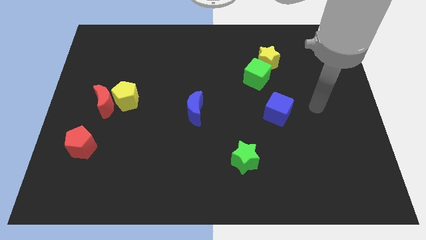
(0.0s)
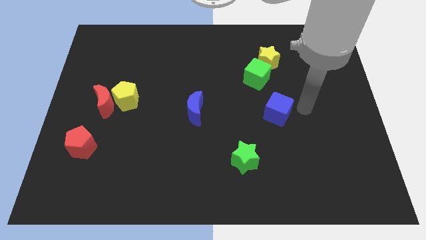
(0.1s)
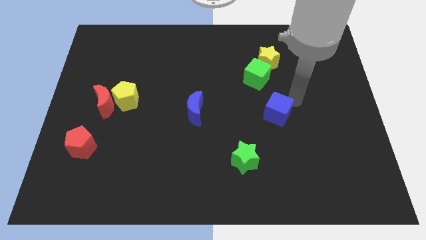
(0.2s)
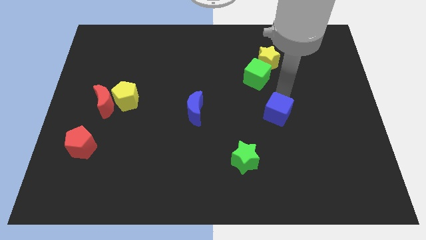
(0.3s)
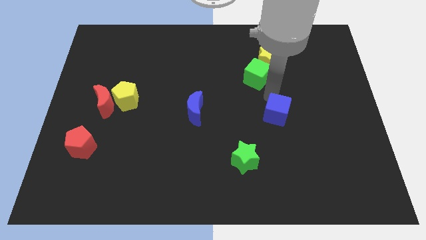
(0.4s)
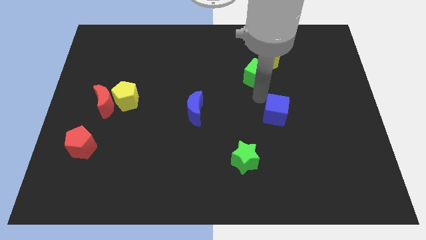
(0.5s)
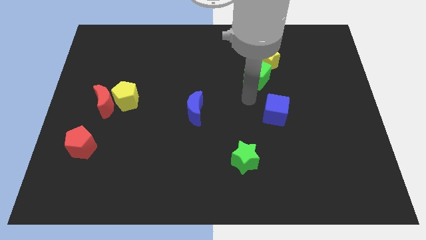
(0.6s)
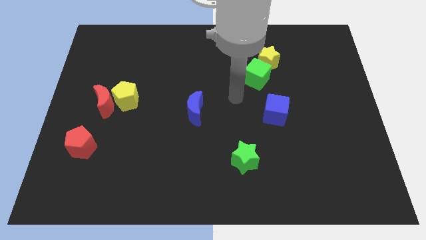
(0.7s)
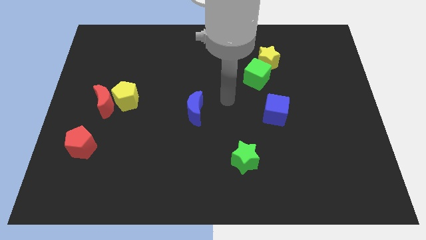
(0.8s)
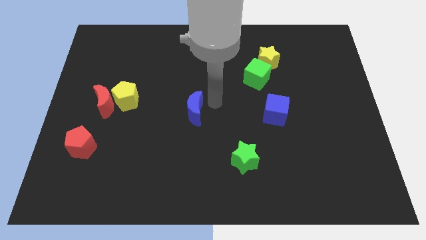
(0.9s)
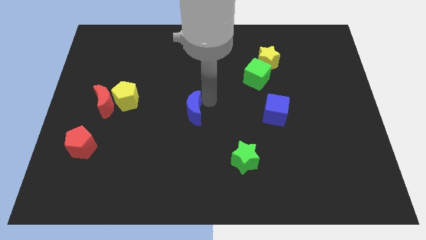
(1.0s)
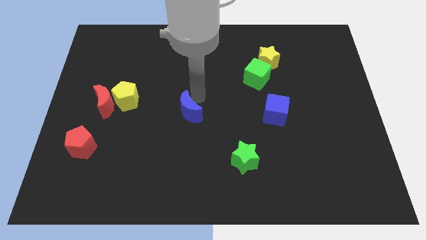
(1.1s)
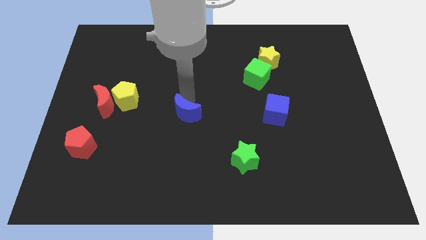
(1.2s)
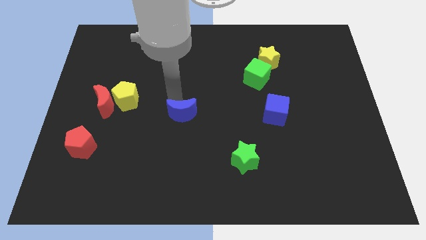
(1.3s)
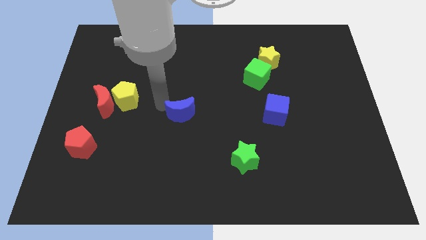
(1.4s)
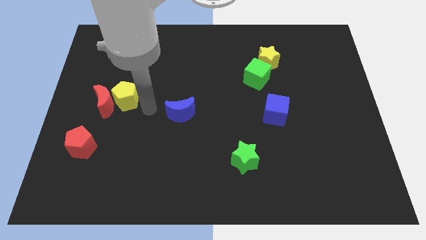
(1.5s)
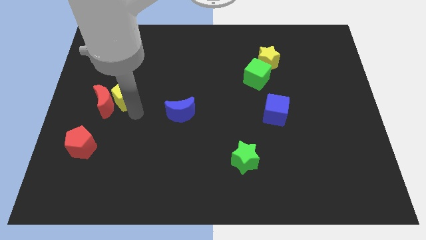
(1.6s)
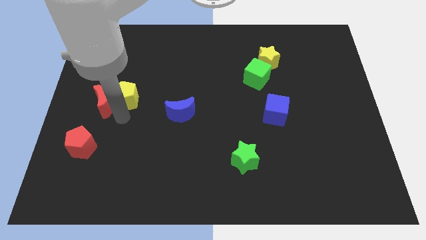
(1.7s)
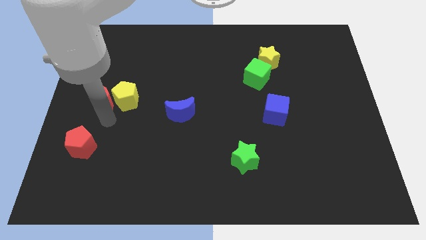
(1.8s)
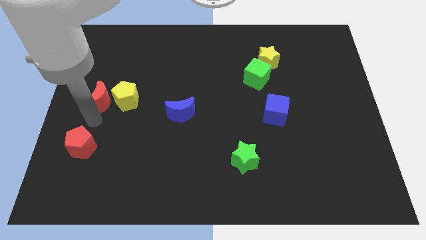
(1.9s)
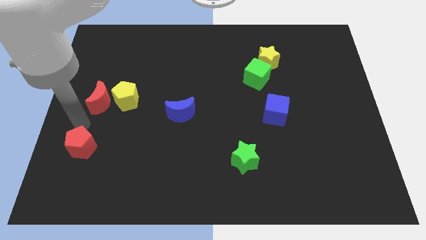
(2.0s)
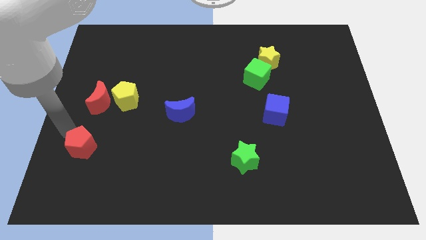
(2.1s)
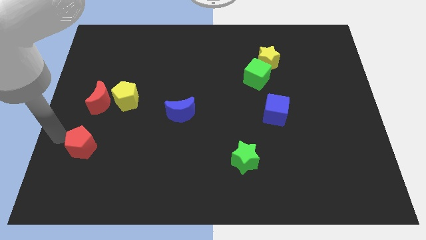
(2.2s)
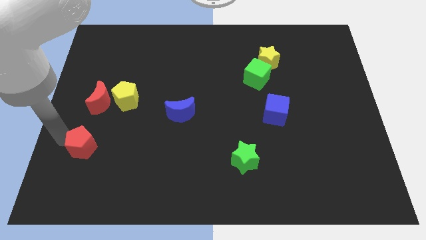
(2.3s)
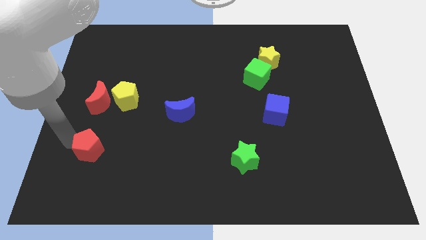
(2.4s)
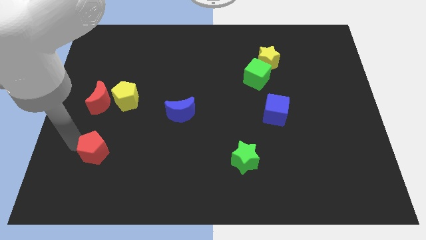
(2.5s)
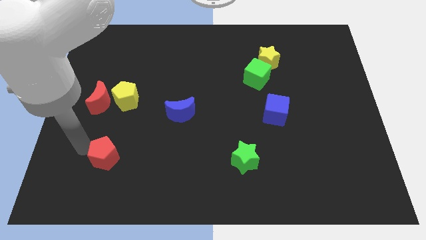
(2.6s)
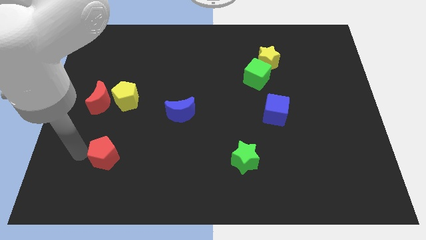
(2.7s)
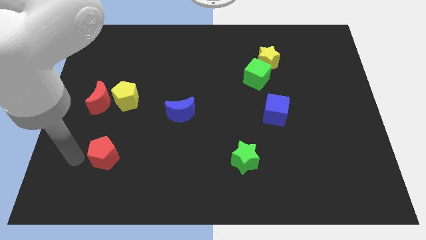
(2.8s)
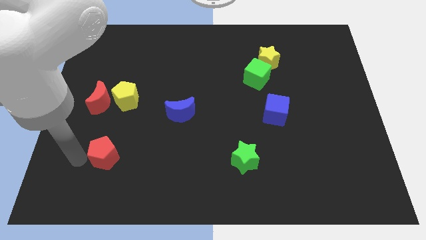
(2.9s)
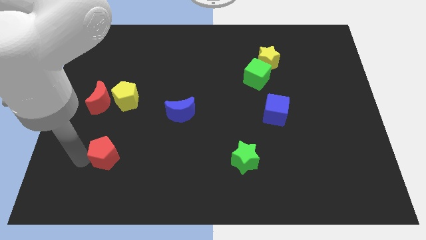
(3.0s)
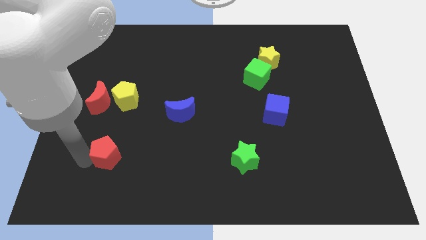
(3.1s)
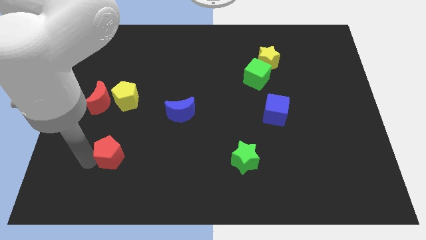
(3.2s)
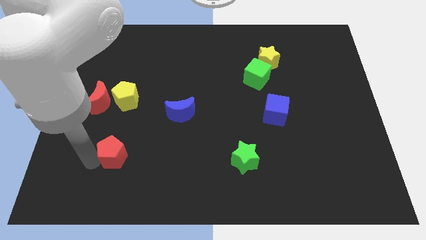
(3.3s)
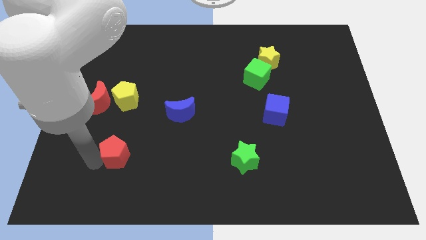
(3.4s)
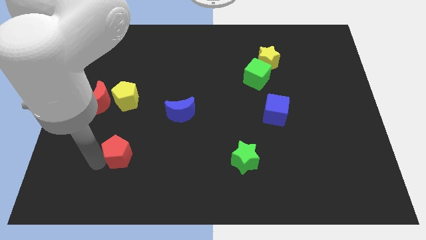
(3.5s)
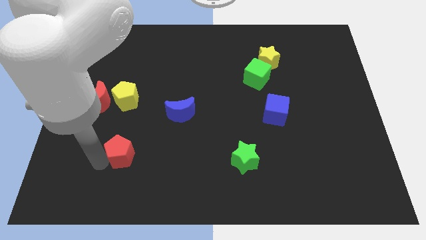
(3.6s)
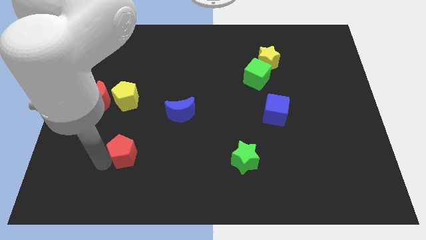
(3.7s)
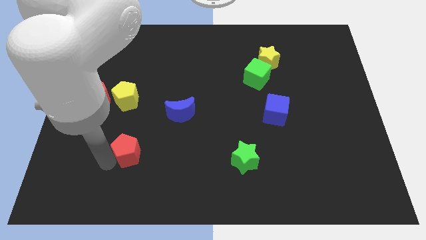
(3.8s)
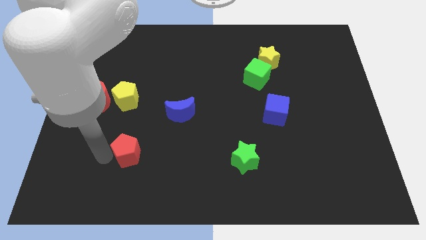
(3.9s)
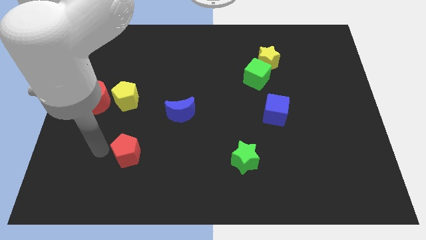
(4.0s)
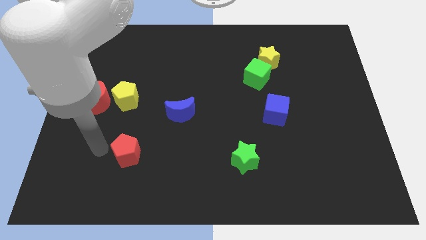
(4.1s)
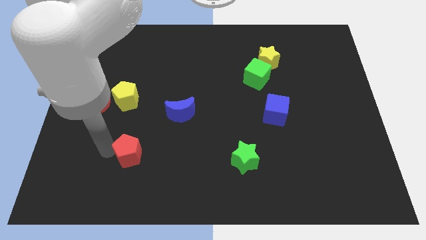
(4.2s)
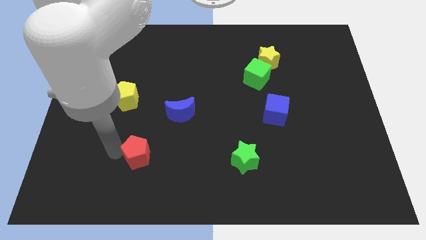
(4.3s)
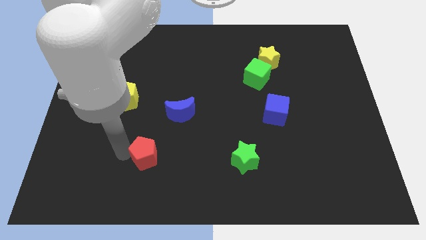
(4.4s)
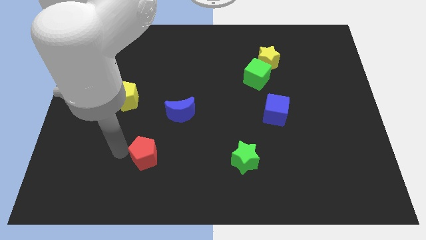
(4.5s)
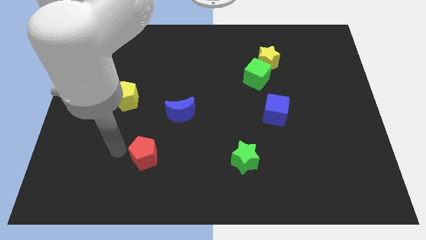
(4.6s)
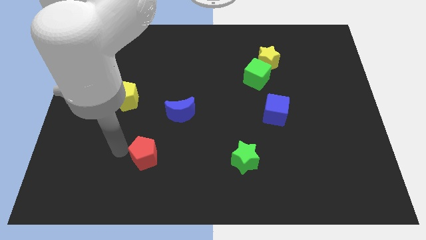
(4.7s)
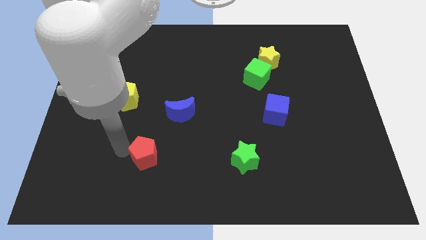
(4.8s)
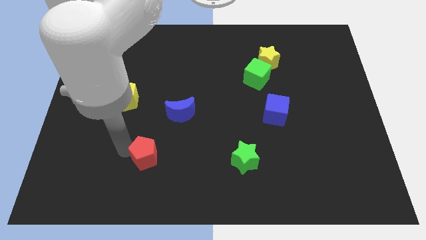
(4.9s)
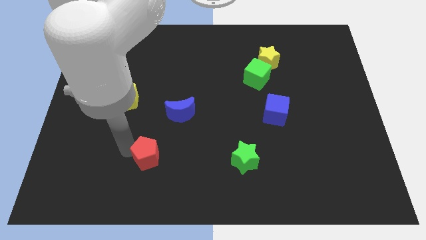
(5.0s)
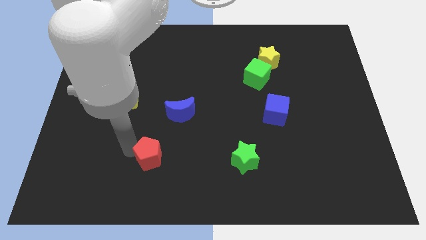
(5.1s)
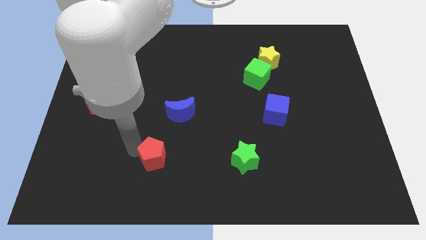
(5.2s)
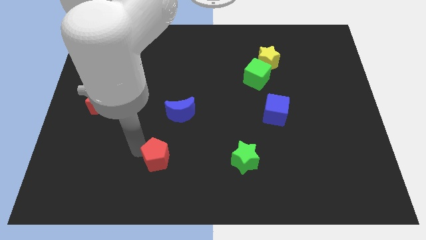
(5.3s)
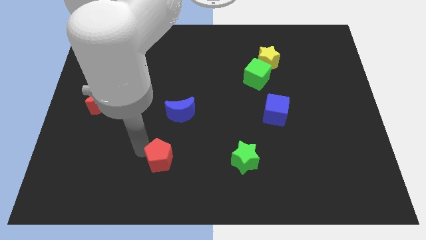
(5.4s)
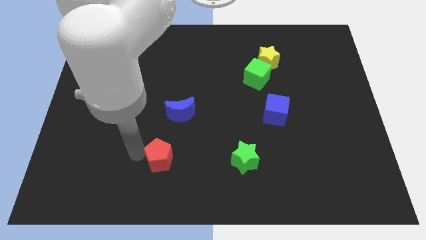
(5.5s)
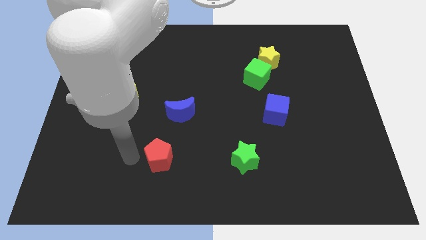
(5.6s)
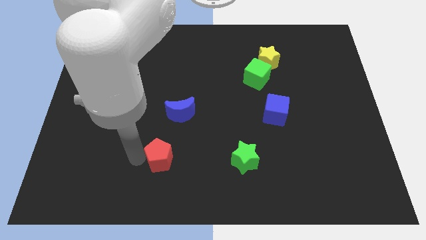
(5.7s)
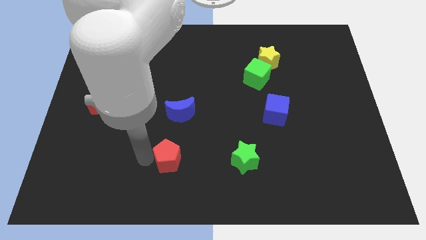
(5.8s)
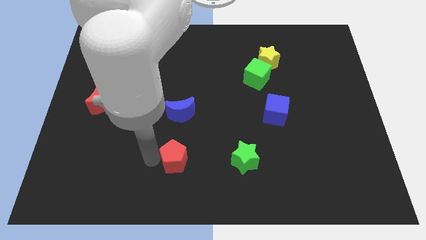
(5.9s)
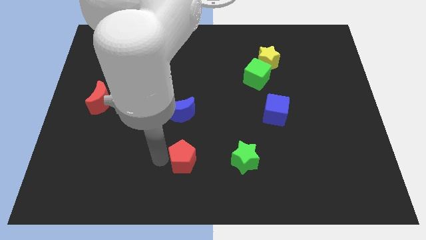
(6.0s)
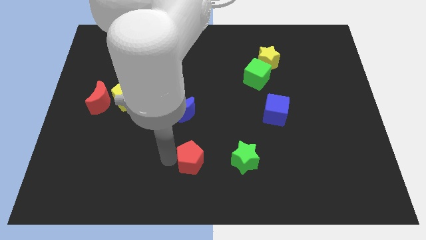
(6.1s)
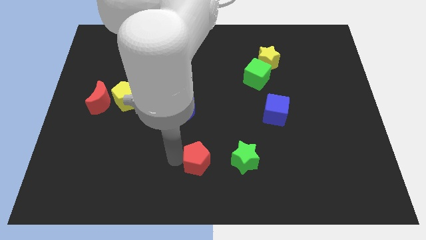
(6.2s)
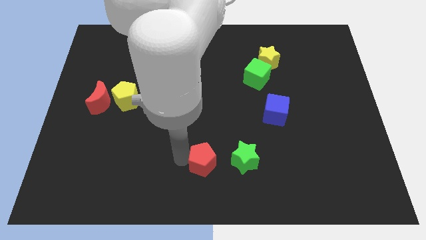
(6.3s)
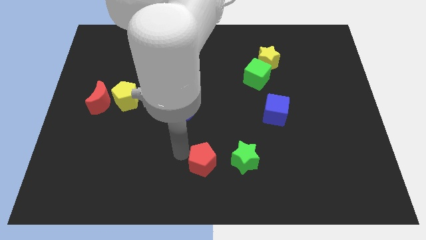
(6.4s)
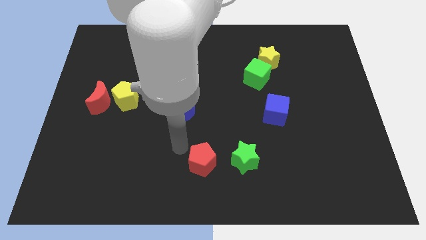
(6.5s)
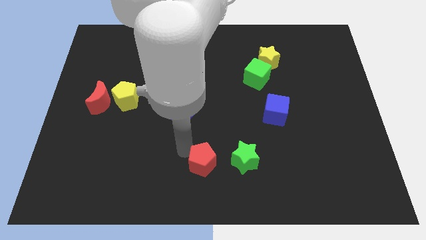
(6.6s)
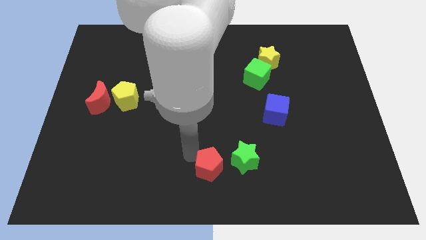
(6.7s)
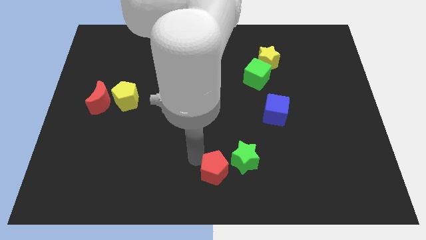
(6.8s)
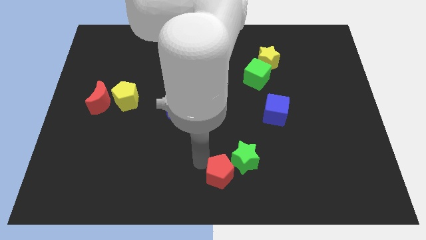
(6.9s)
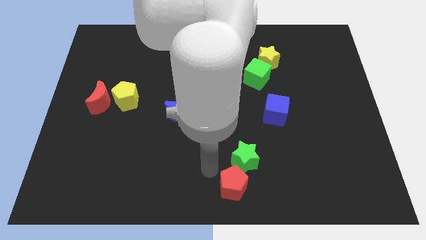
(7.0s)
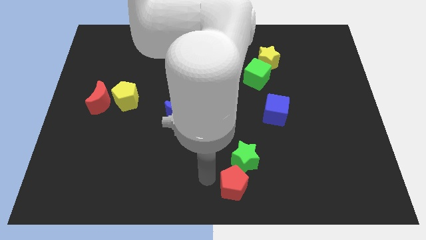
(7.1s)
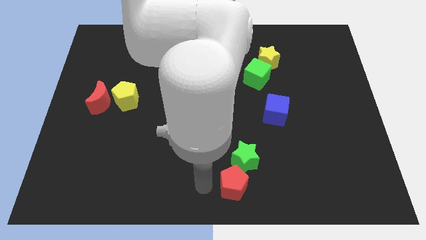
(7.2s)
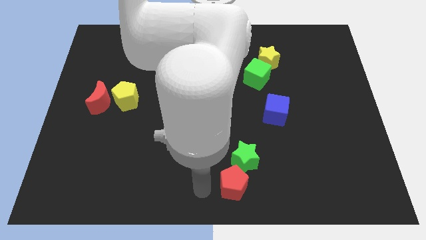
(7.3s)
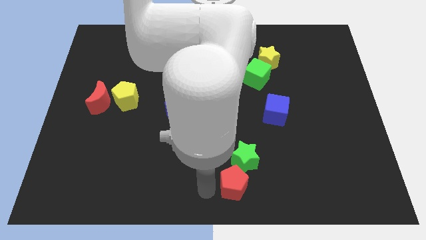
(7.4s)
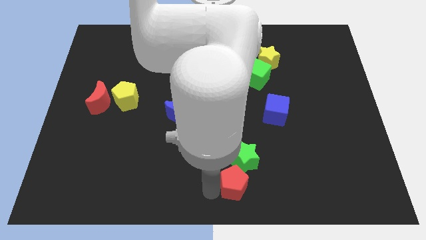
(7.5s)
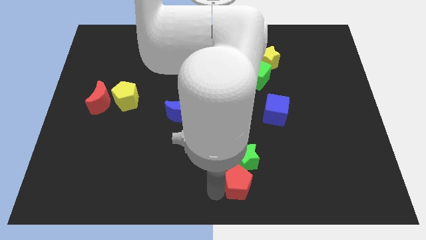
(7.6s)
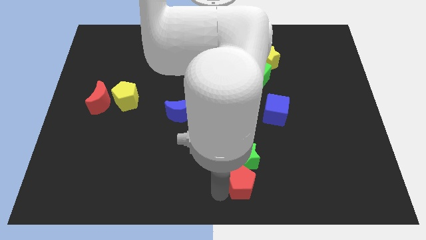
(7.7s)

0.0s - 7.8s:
put the red pentagon diagonally down and to the right of the green star
